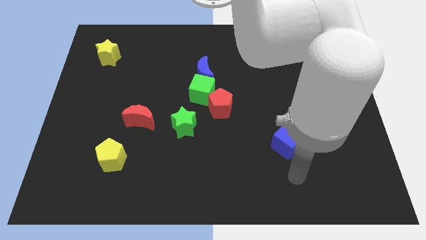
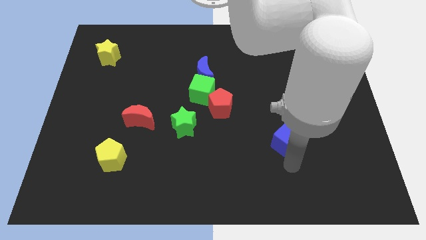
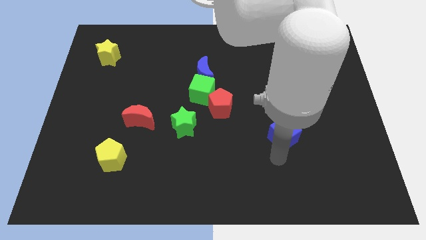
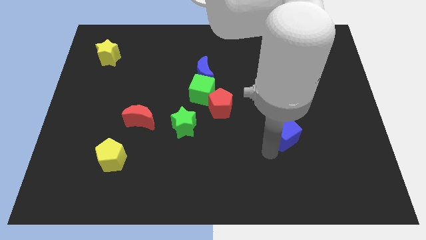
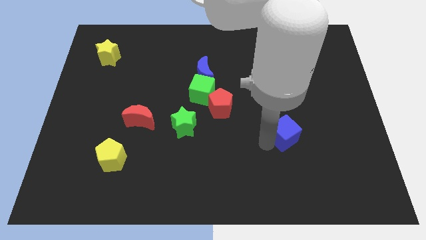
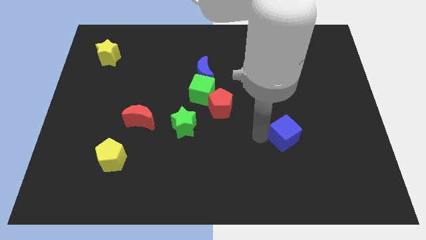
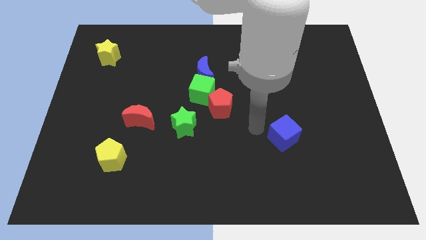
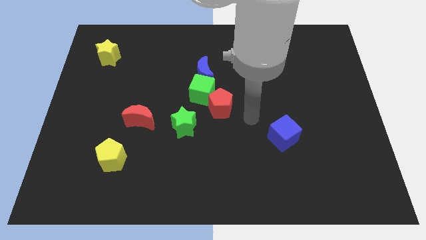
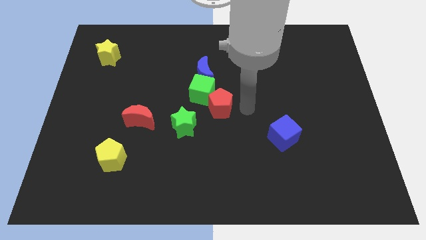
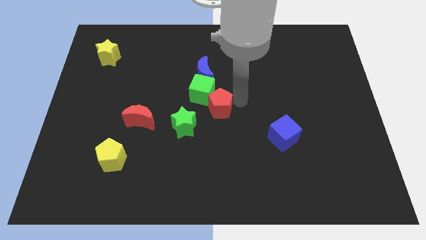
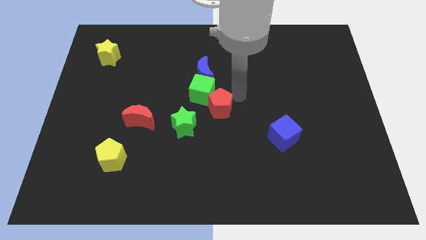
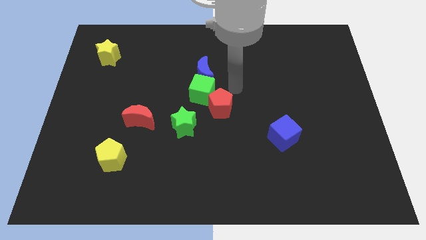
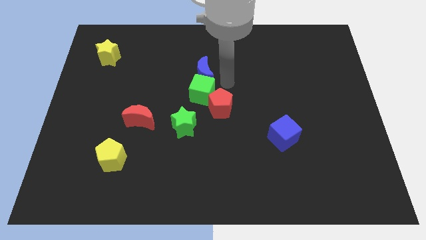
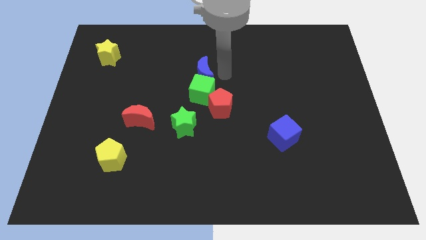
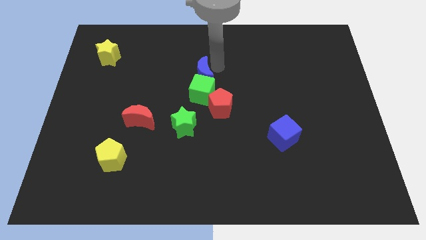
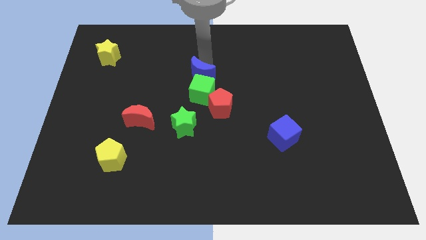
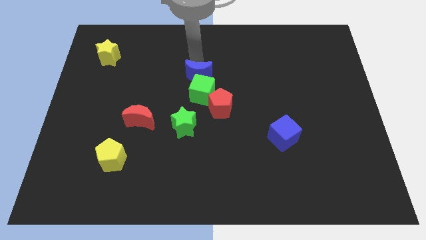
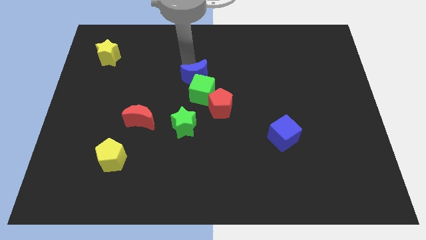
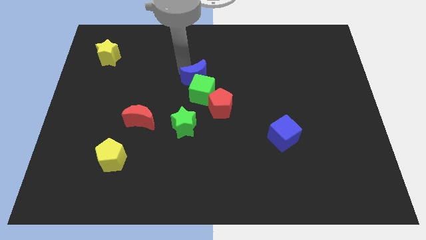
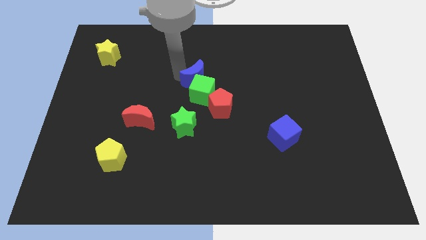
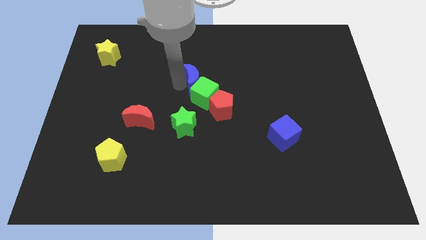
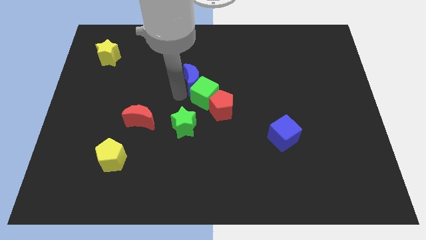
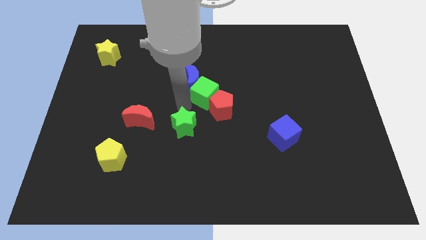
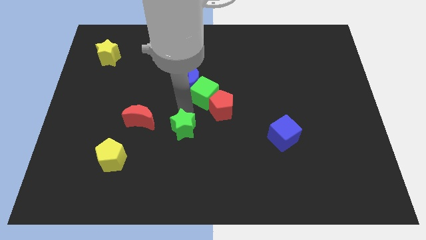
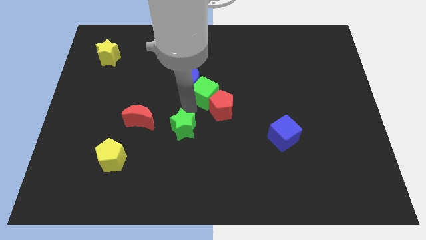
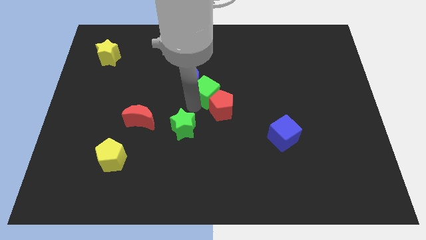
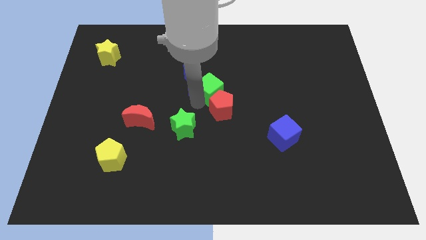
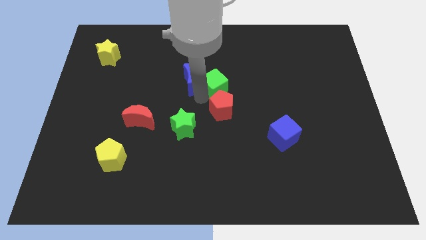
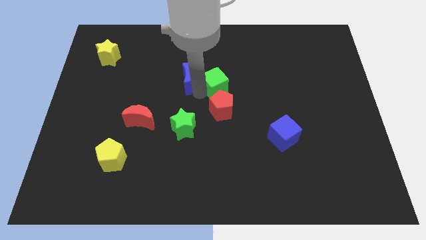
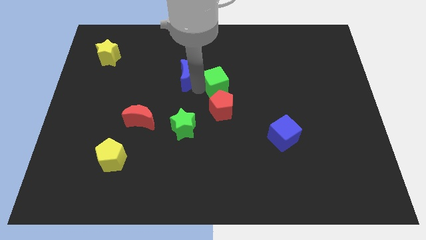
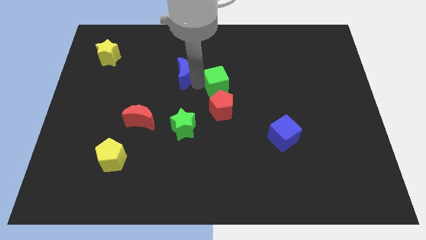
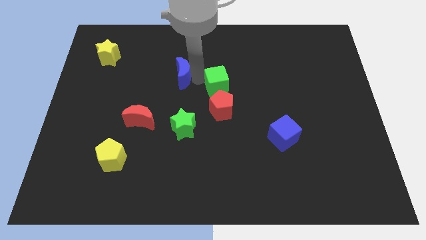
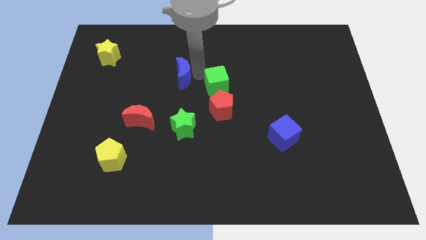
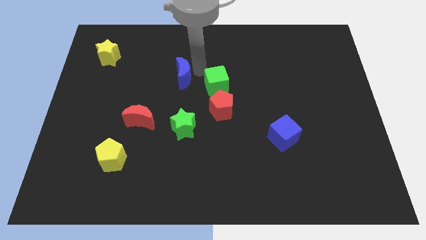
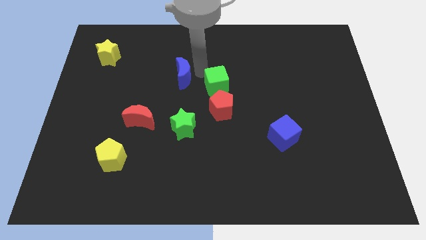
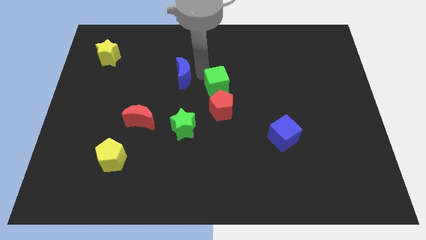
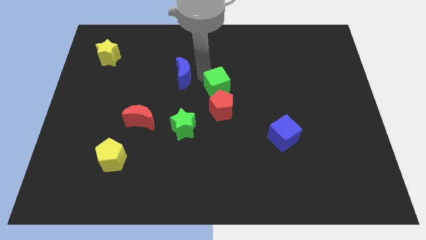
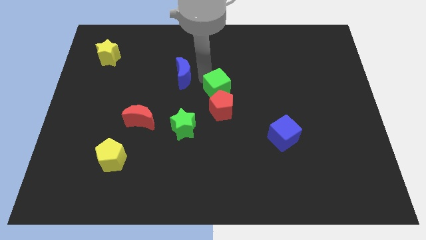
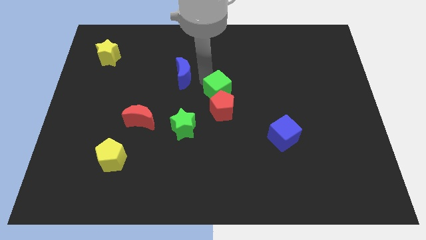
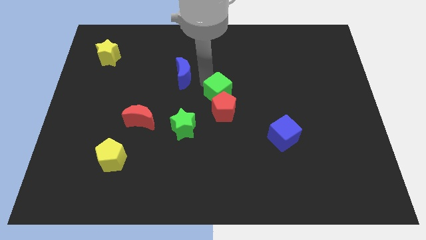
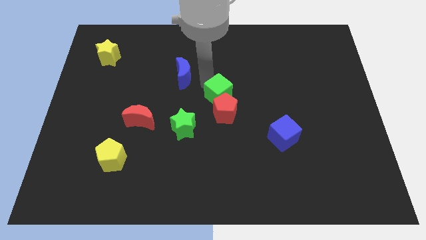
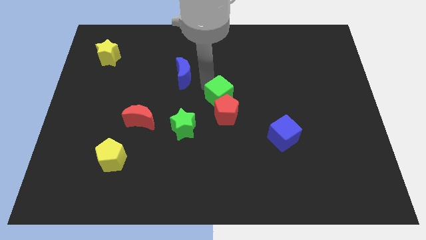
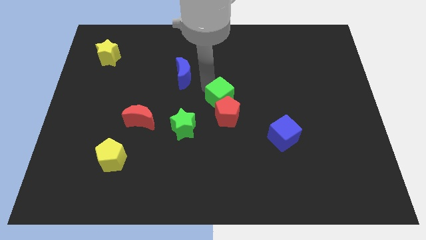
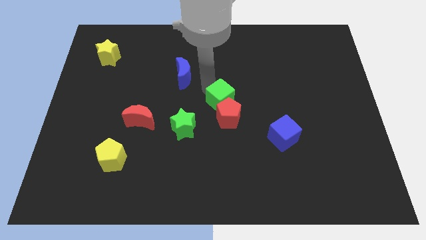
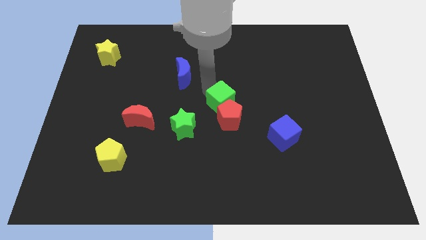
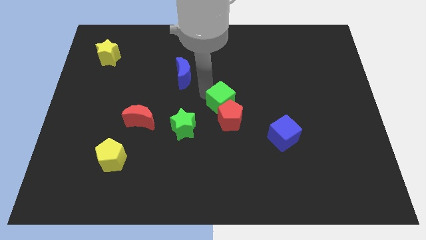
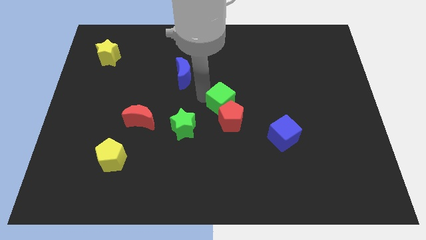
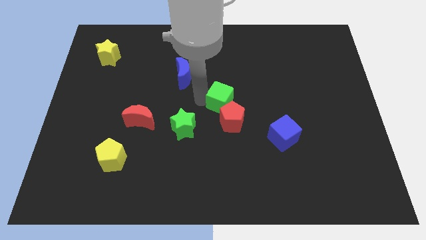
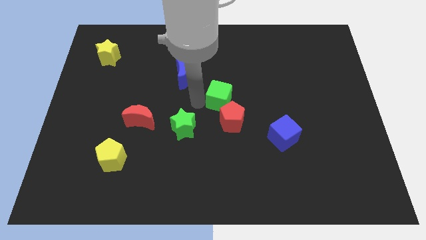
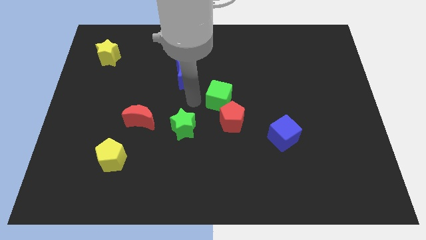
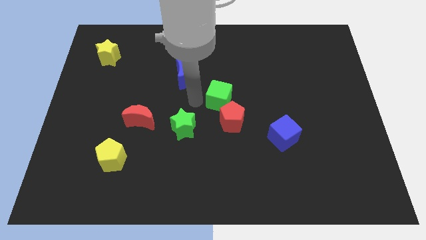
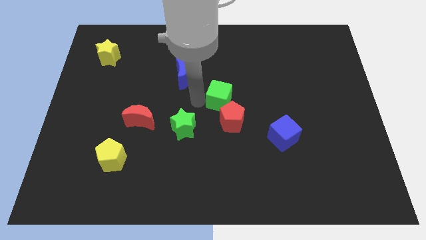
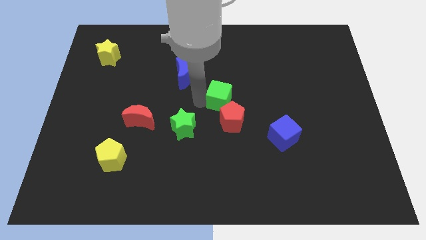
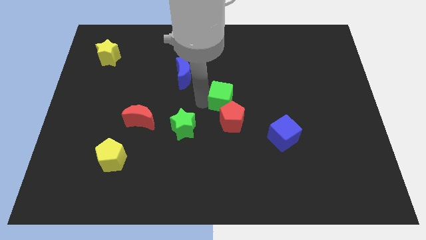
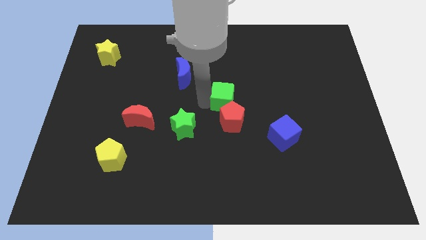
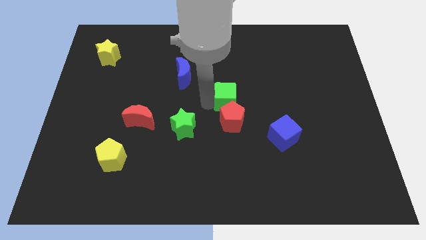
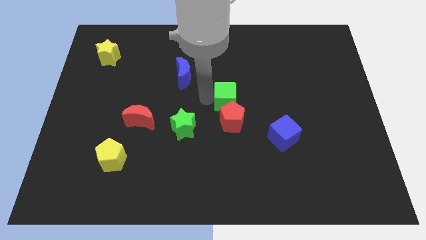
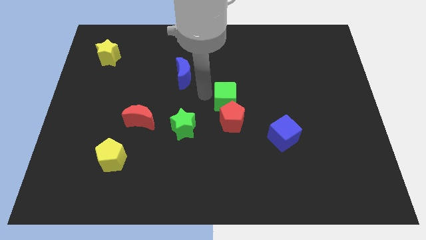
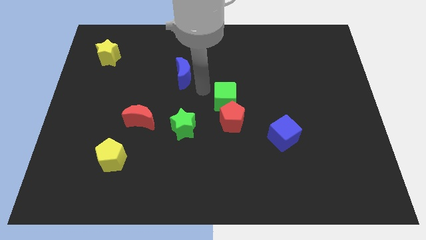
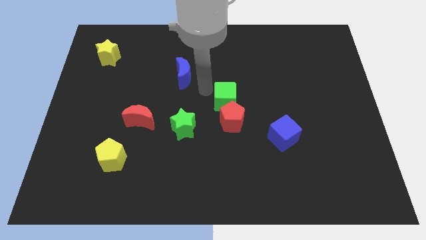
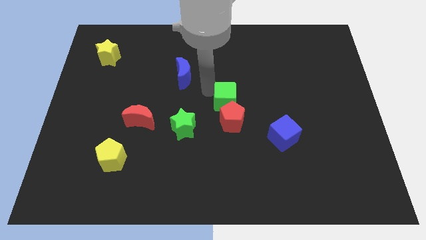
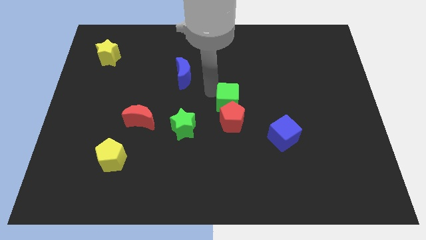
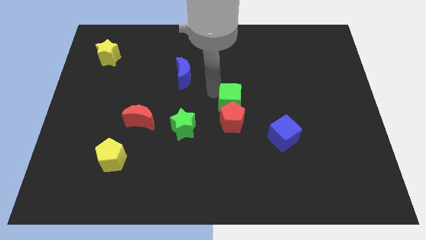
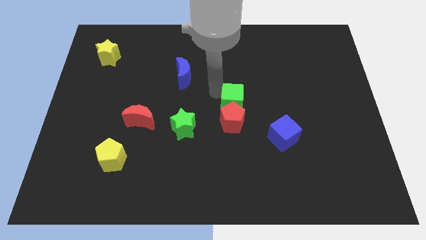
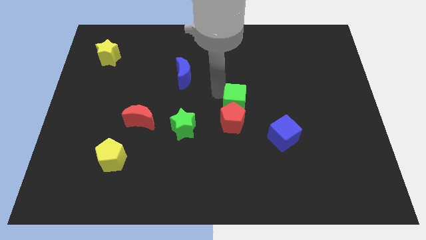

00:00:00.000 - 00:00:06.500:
slightly push the green cube downwards and to the right diagonally

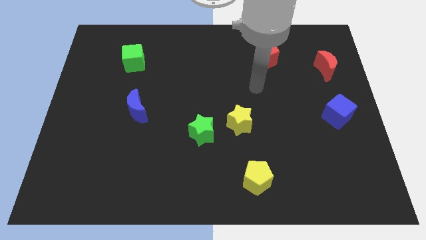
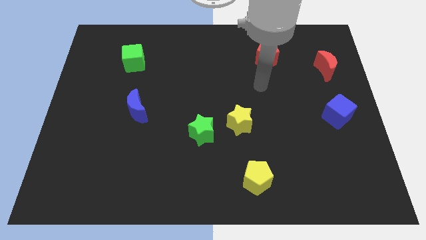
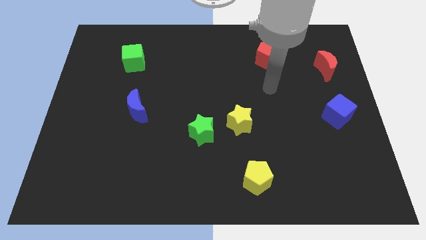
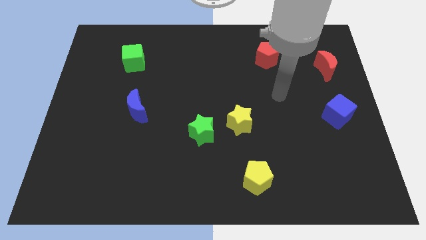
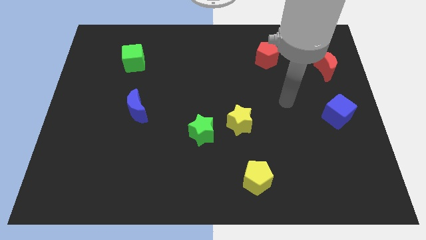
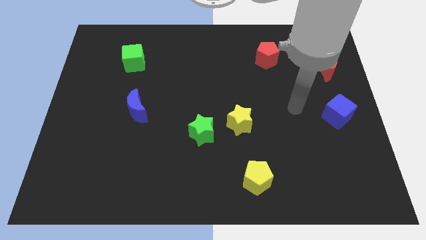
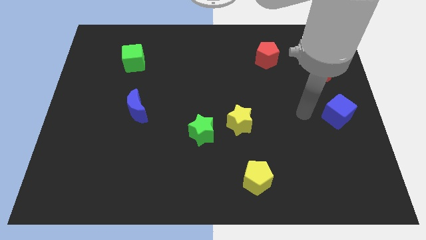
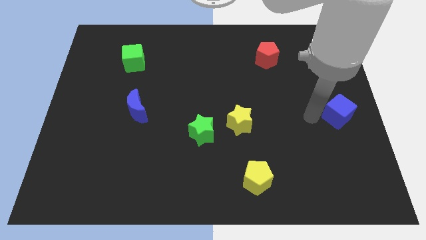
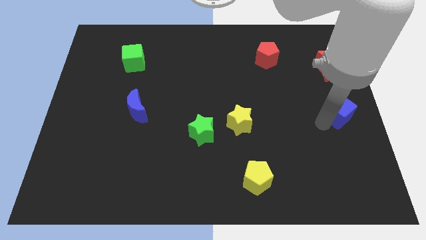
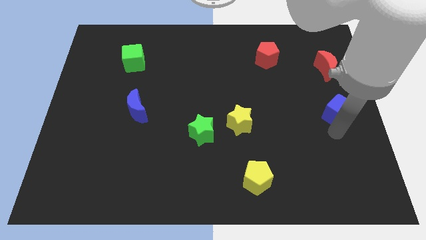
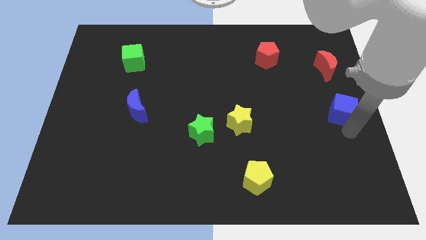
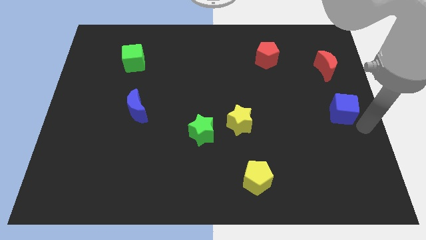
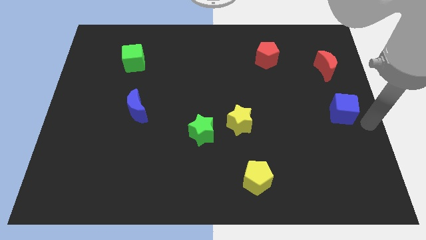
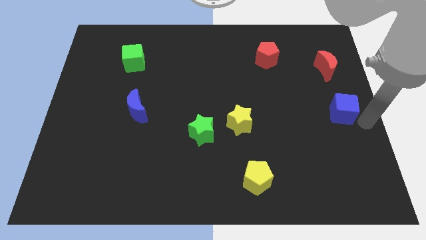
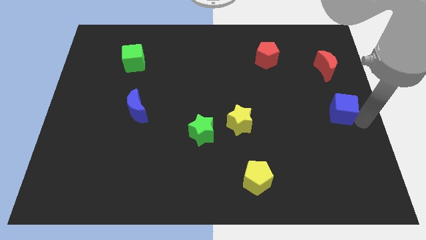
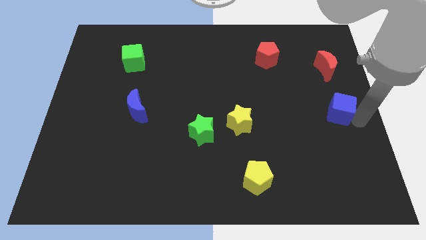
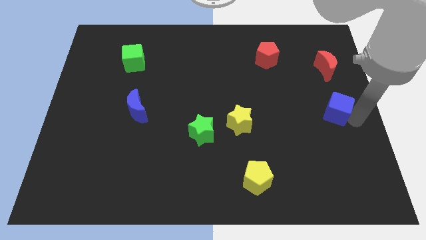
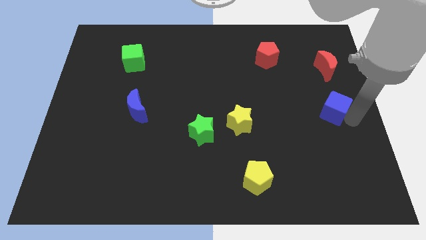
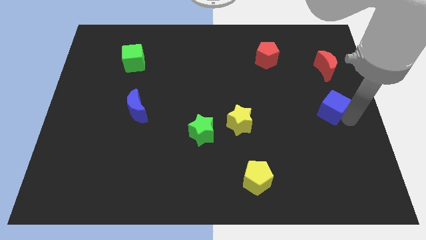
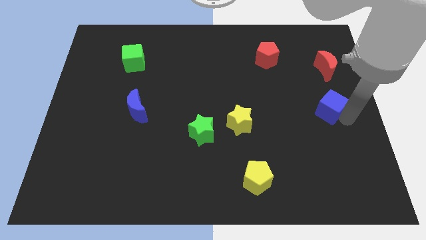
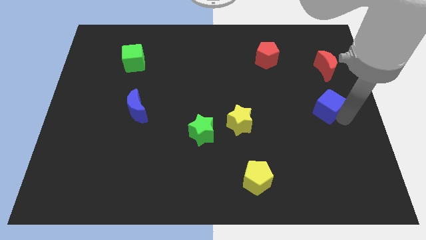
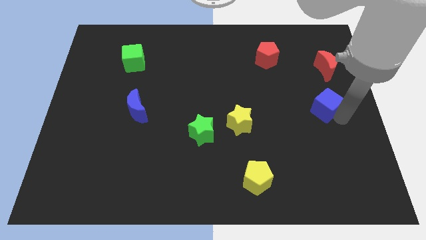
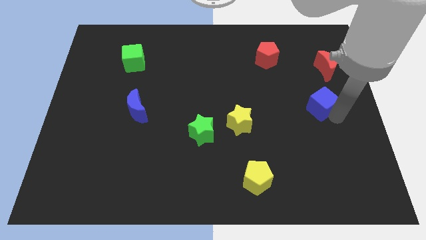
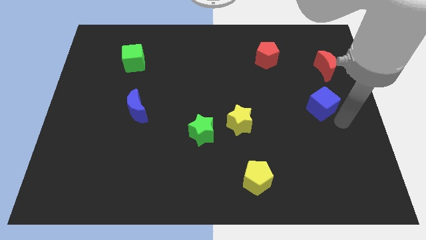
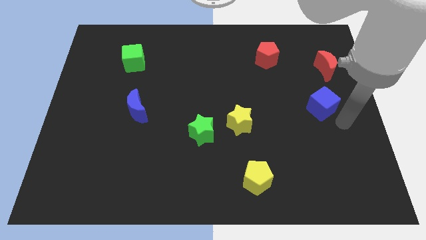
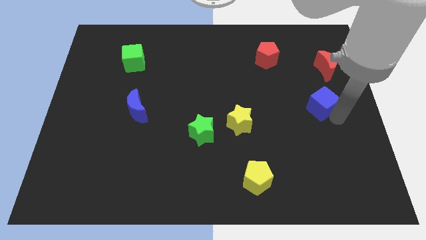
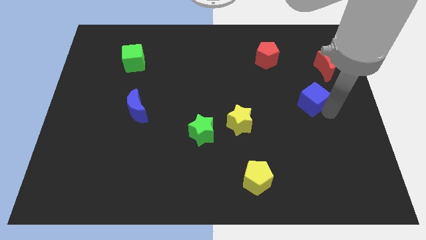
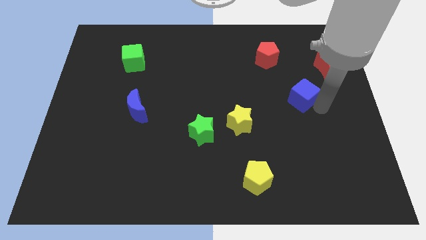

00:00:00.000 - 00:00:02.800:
push the blue cube up and then to the left a little
